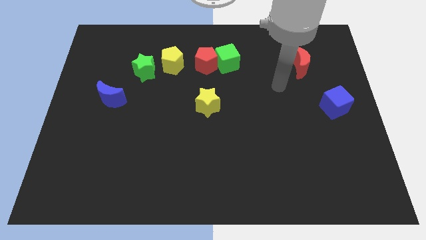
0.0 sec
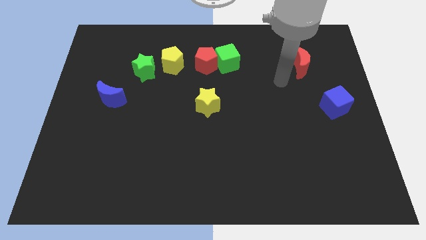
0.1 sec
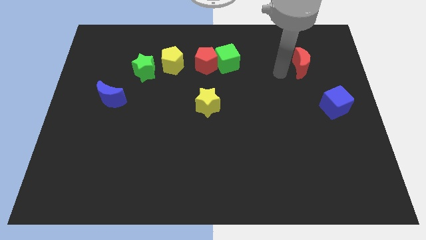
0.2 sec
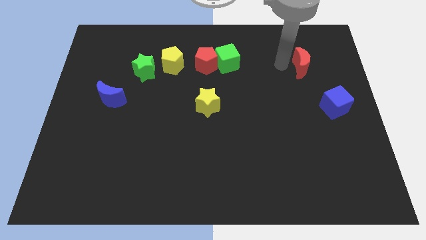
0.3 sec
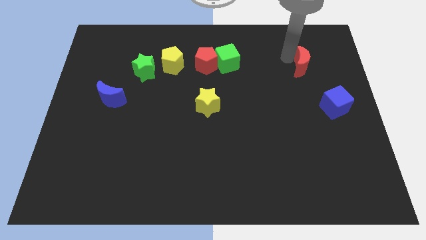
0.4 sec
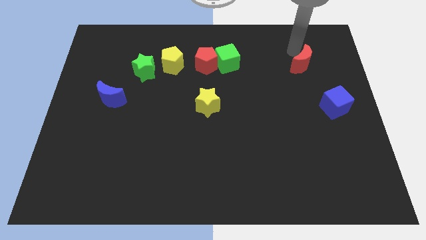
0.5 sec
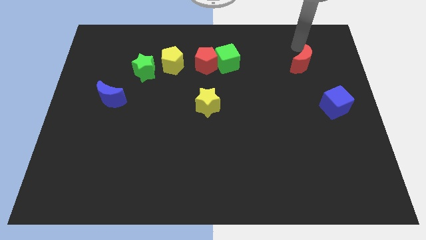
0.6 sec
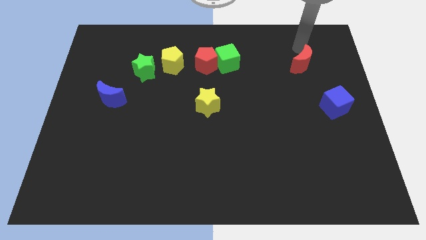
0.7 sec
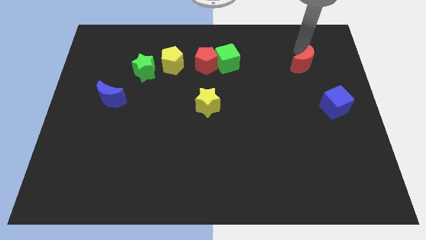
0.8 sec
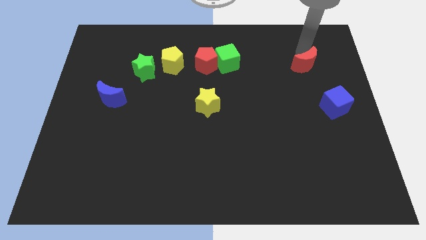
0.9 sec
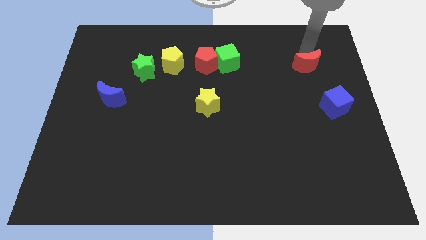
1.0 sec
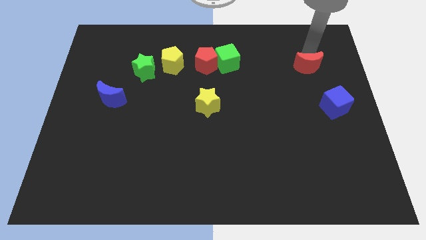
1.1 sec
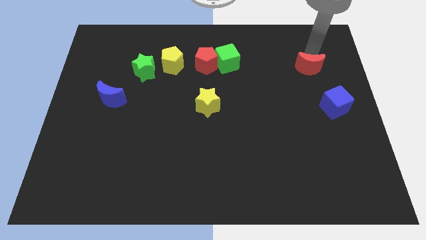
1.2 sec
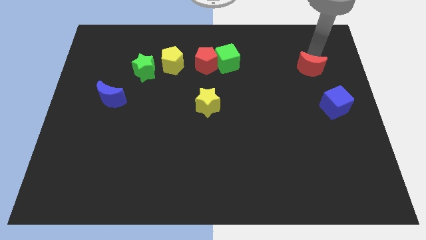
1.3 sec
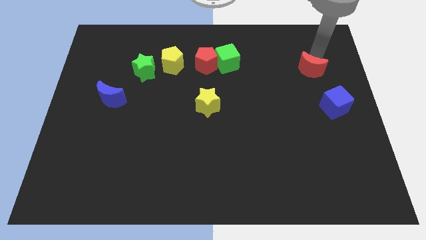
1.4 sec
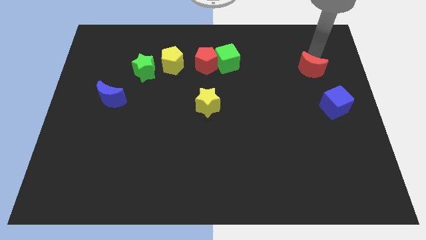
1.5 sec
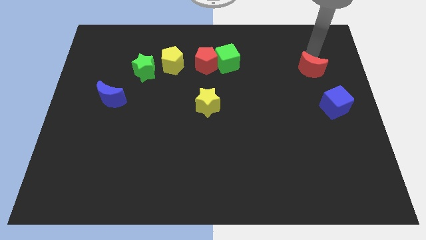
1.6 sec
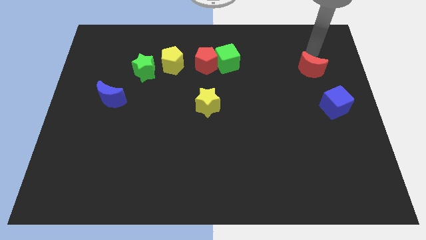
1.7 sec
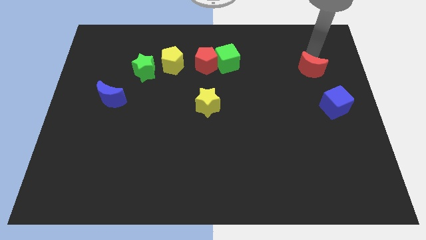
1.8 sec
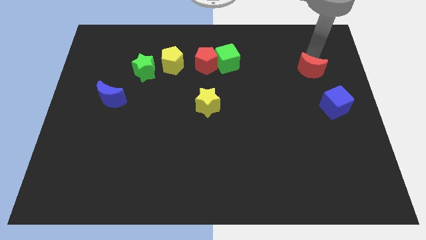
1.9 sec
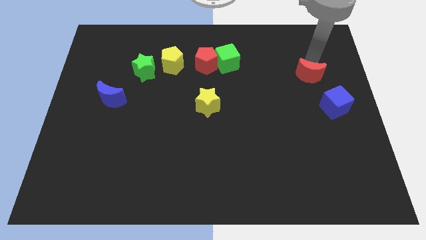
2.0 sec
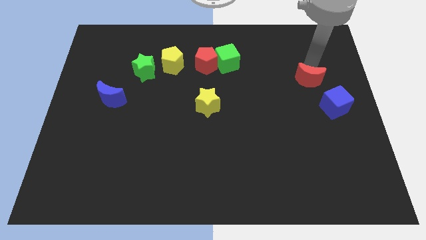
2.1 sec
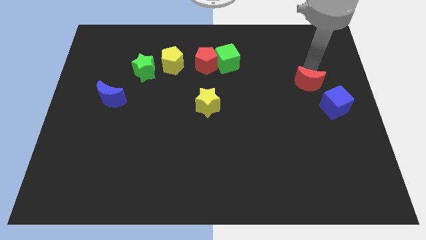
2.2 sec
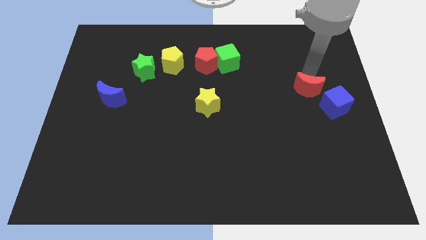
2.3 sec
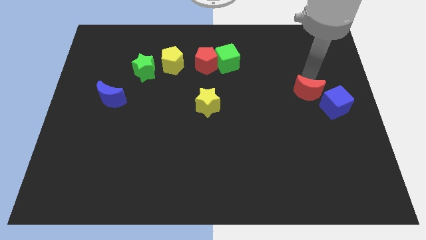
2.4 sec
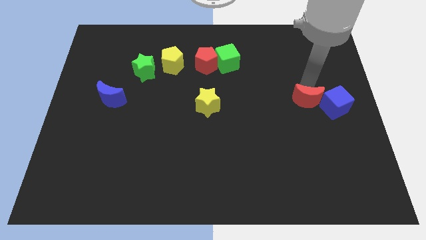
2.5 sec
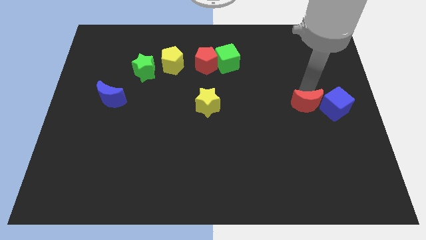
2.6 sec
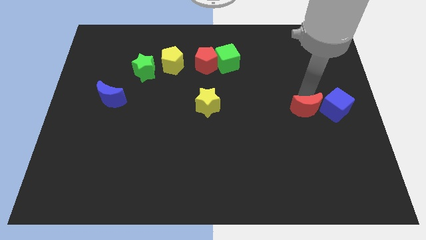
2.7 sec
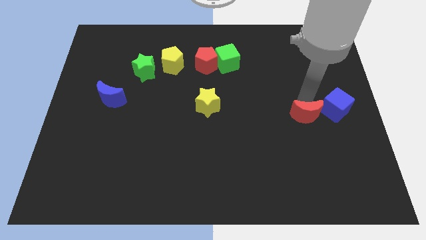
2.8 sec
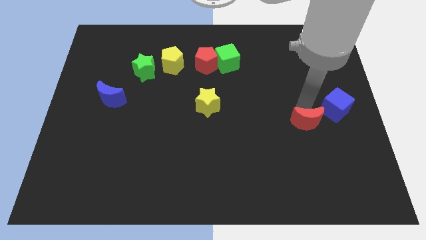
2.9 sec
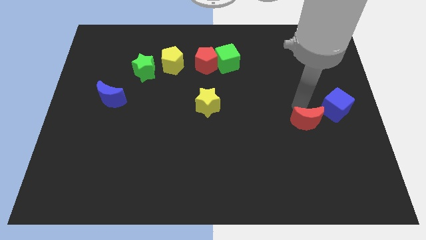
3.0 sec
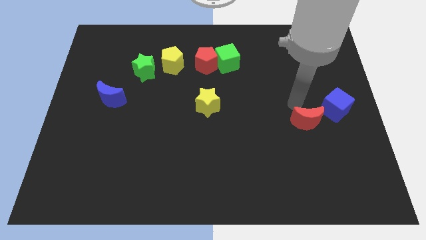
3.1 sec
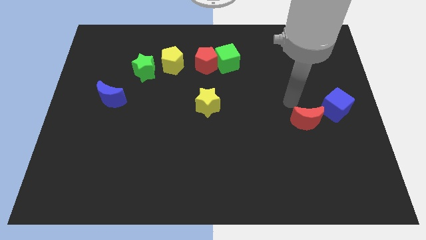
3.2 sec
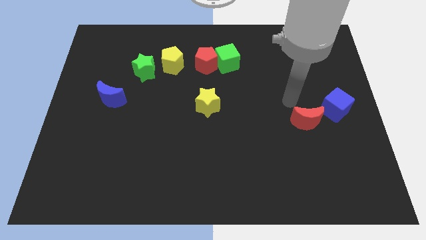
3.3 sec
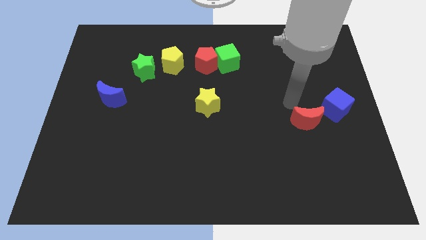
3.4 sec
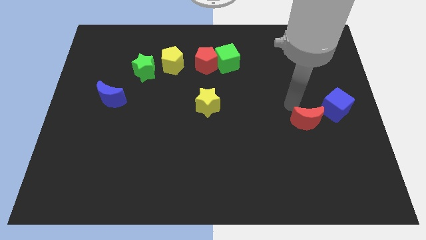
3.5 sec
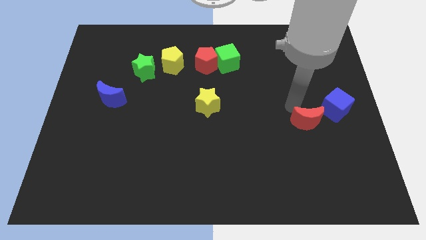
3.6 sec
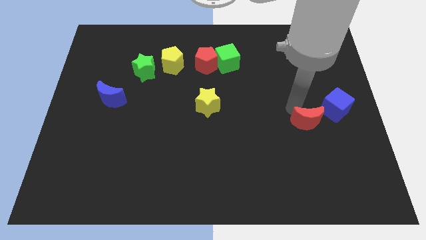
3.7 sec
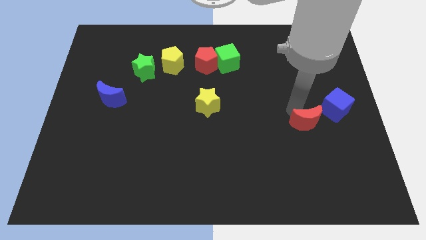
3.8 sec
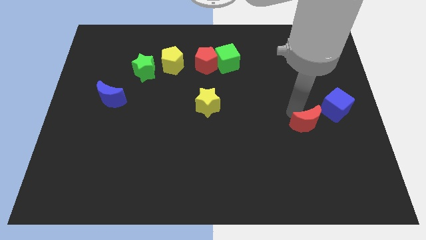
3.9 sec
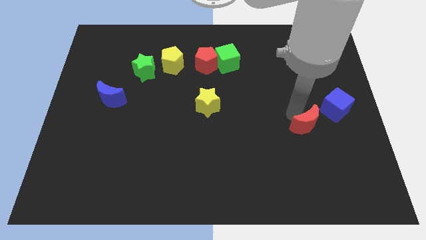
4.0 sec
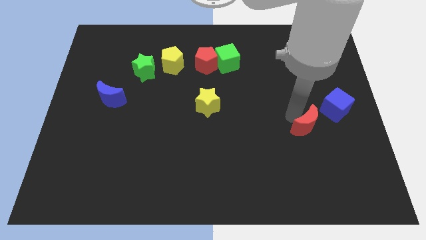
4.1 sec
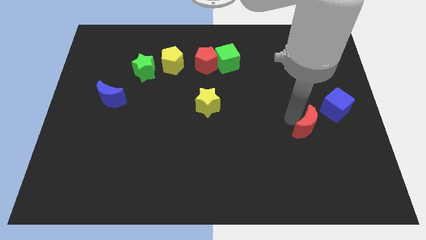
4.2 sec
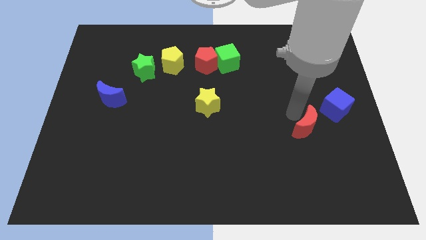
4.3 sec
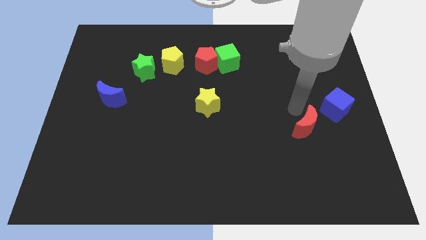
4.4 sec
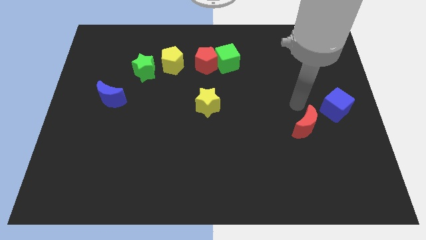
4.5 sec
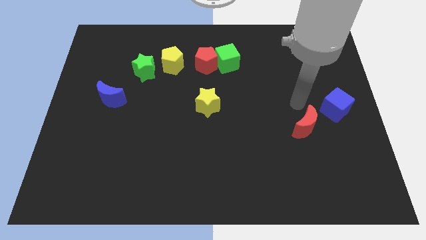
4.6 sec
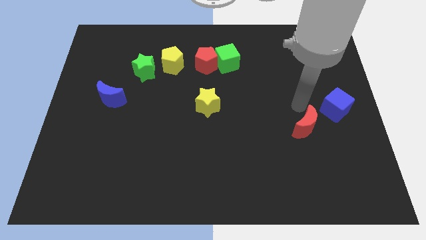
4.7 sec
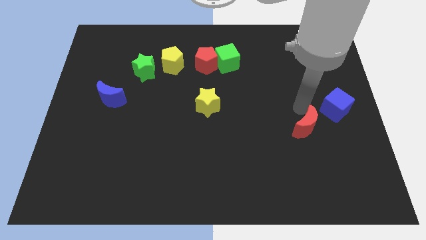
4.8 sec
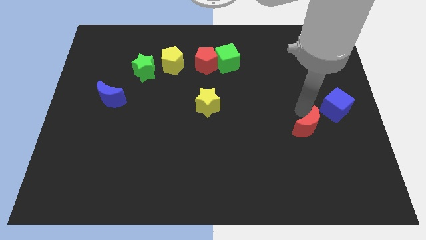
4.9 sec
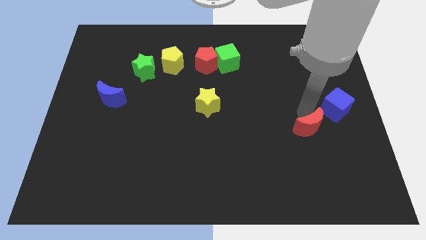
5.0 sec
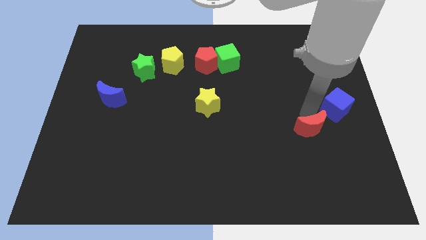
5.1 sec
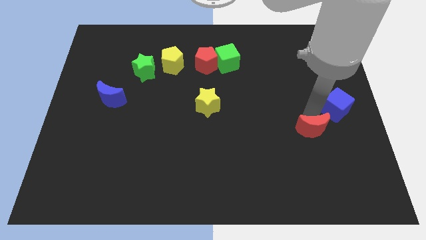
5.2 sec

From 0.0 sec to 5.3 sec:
push the red moon down

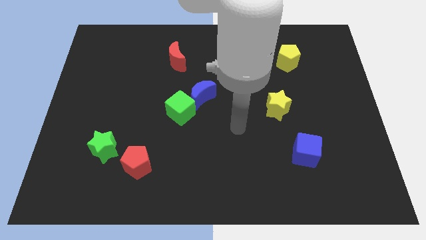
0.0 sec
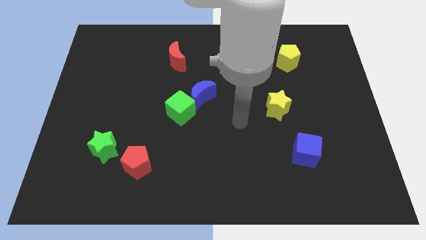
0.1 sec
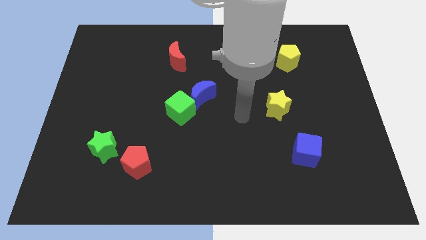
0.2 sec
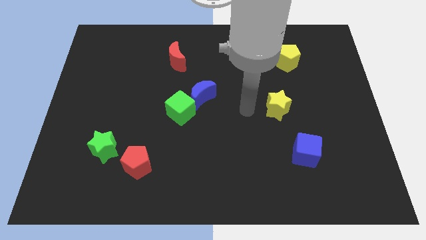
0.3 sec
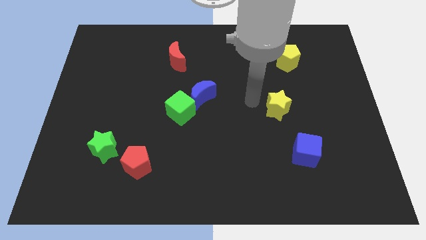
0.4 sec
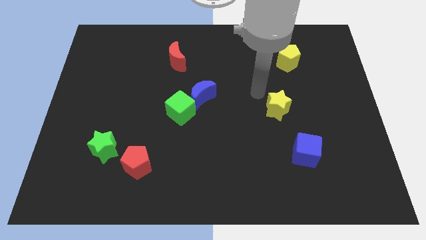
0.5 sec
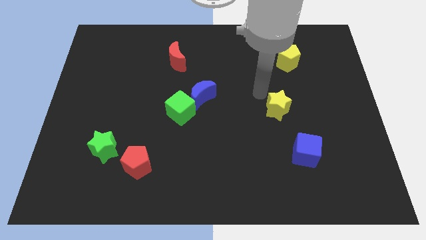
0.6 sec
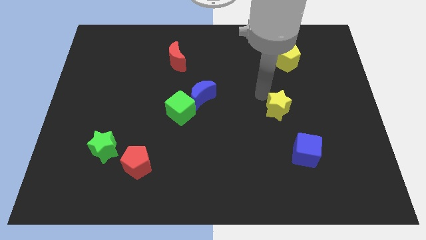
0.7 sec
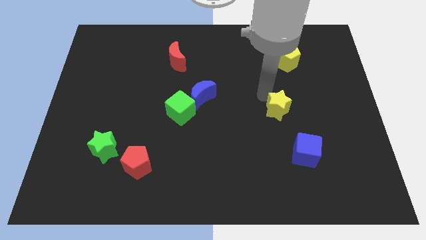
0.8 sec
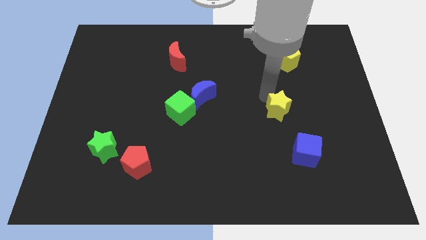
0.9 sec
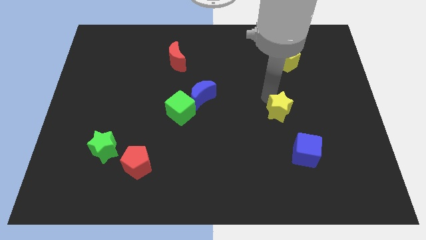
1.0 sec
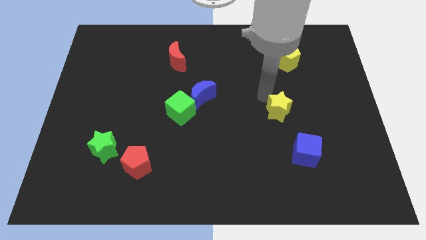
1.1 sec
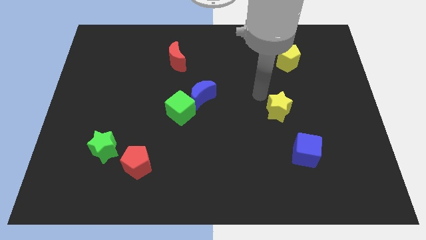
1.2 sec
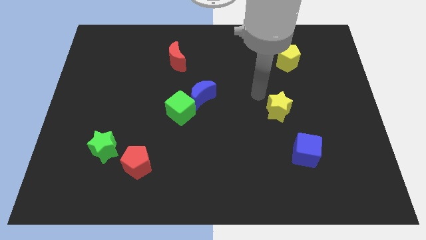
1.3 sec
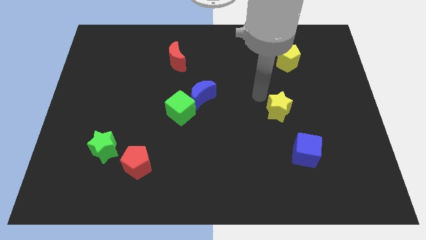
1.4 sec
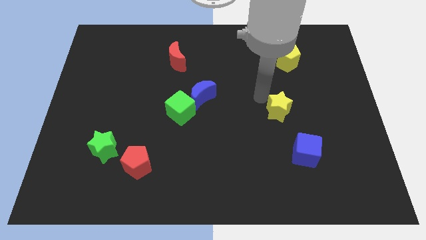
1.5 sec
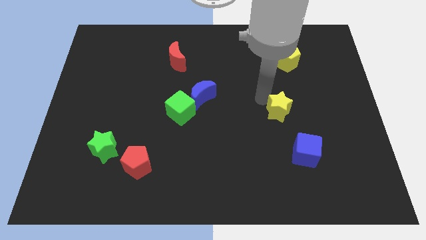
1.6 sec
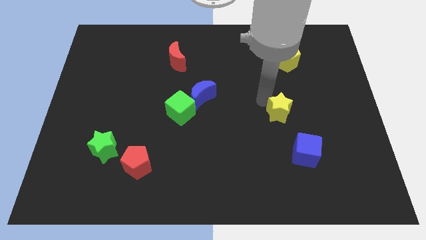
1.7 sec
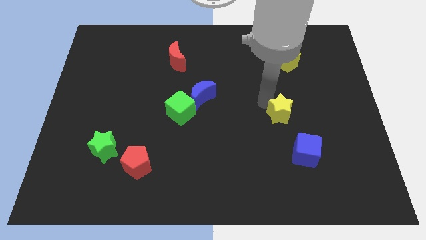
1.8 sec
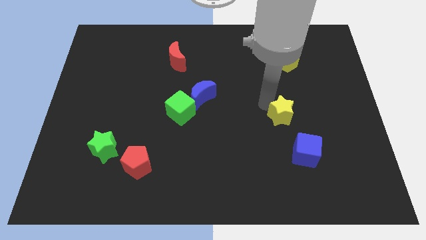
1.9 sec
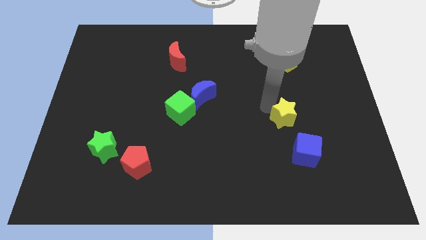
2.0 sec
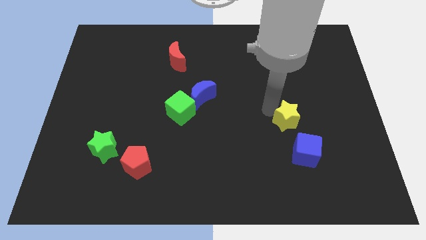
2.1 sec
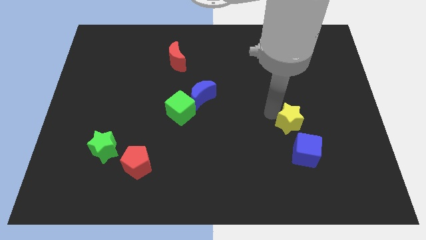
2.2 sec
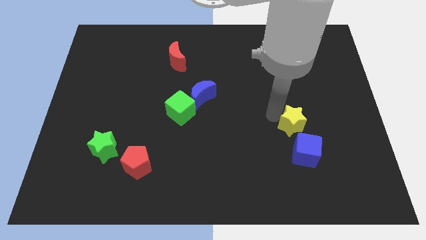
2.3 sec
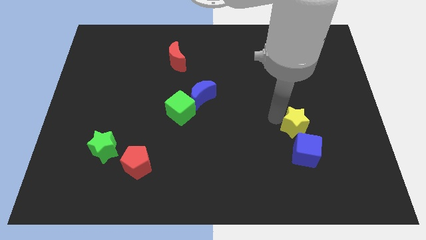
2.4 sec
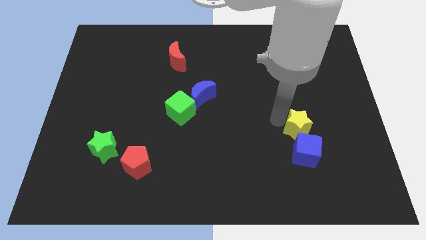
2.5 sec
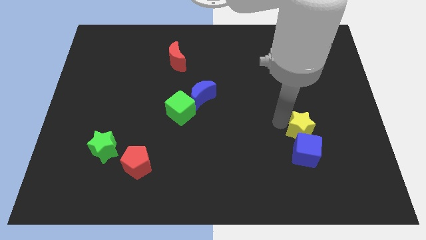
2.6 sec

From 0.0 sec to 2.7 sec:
push the yellow star a bit down and to the right
